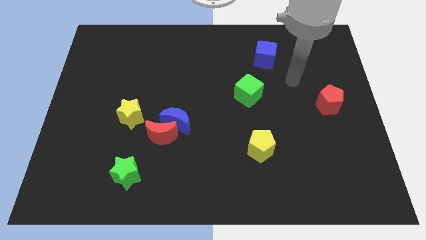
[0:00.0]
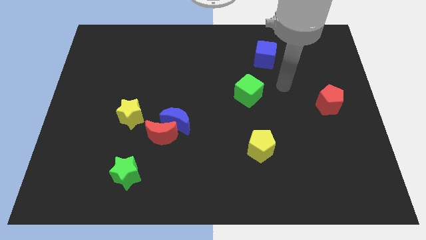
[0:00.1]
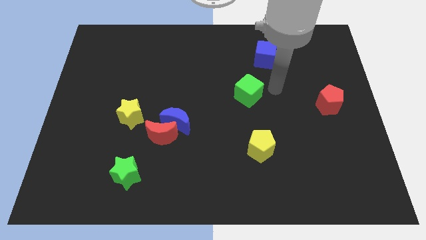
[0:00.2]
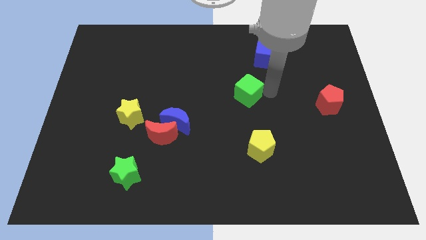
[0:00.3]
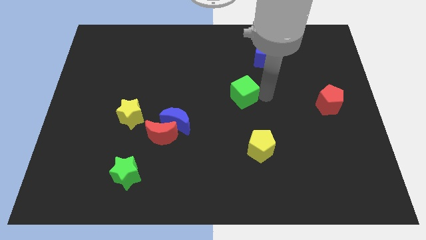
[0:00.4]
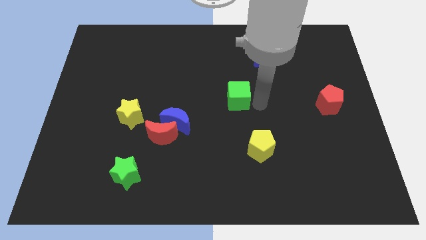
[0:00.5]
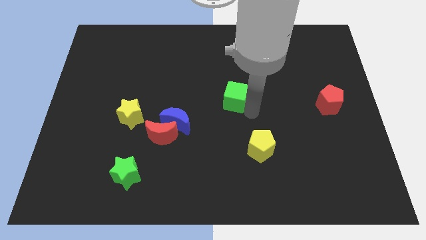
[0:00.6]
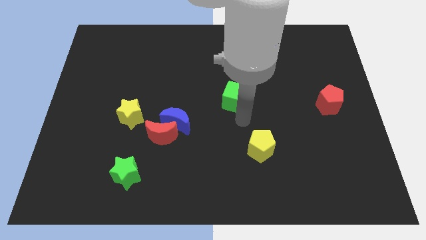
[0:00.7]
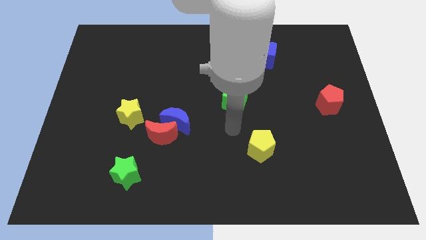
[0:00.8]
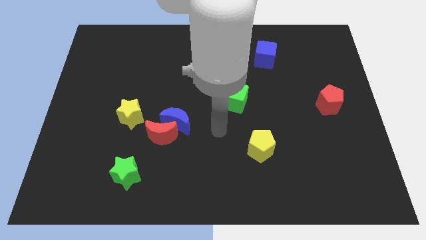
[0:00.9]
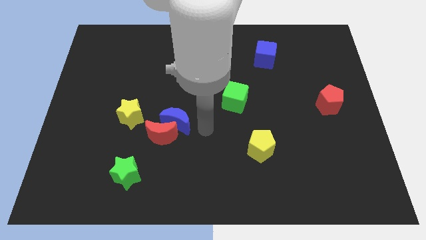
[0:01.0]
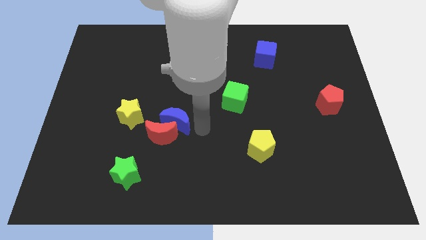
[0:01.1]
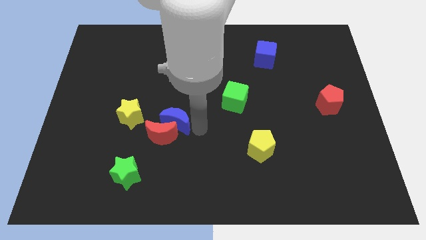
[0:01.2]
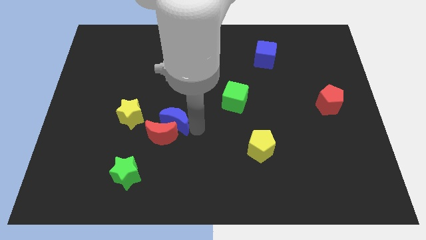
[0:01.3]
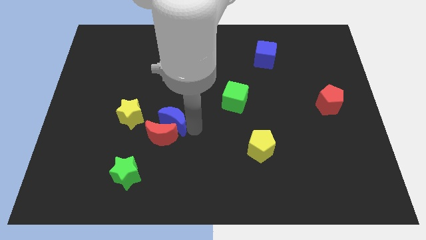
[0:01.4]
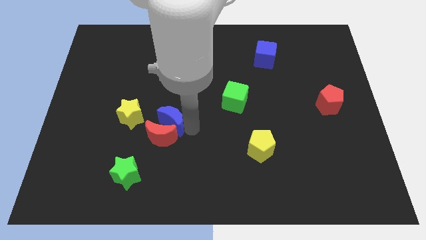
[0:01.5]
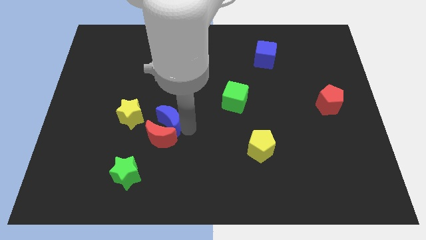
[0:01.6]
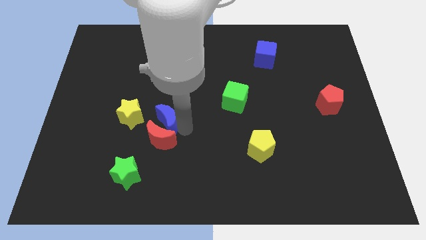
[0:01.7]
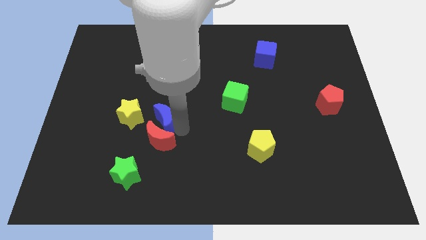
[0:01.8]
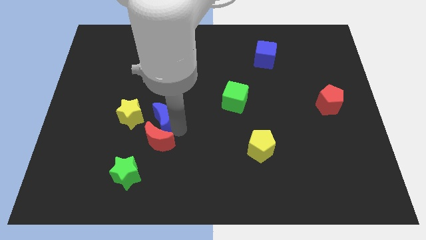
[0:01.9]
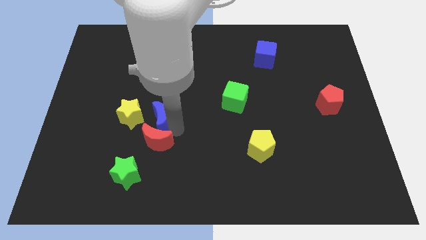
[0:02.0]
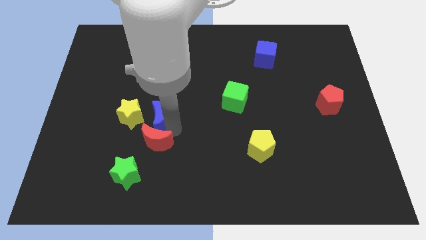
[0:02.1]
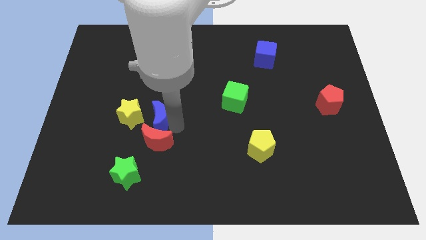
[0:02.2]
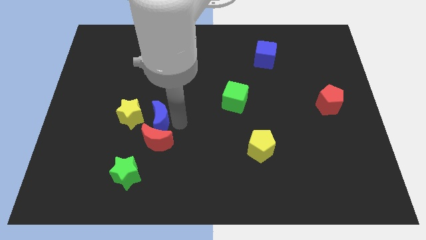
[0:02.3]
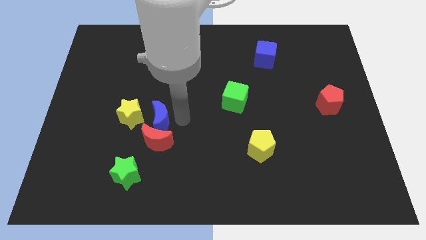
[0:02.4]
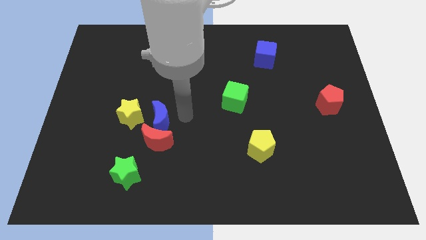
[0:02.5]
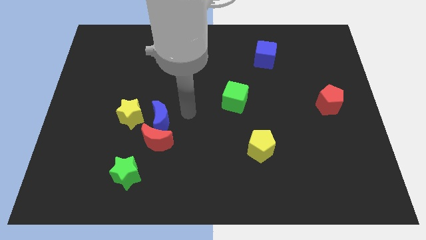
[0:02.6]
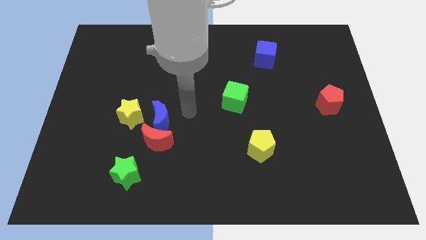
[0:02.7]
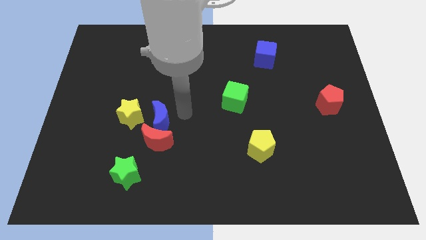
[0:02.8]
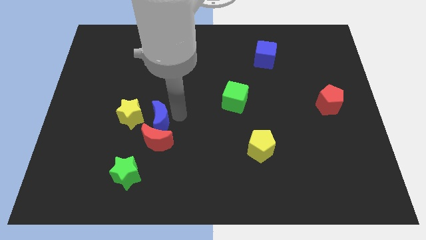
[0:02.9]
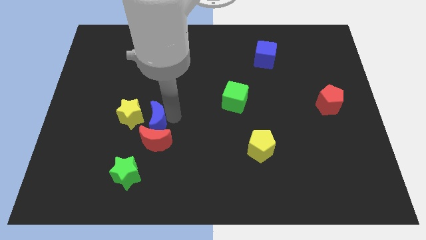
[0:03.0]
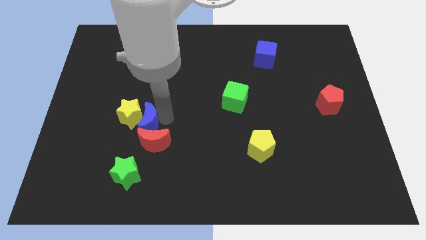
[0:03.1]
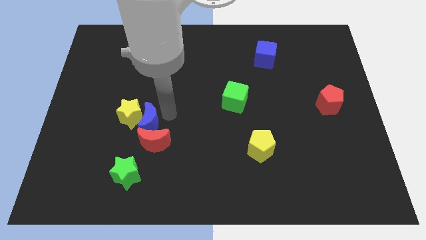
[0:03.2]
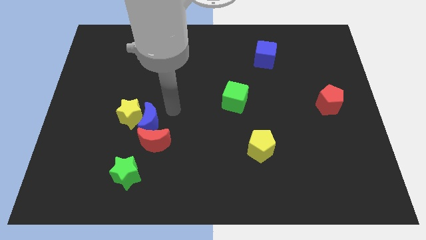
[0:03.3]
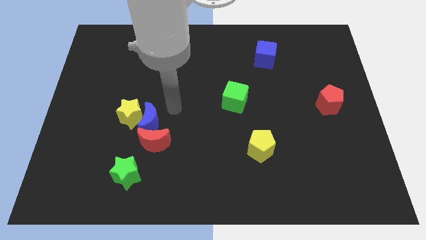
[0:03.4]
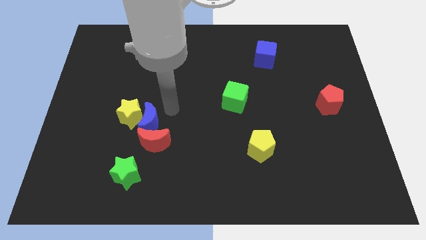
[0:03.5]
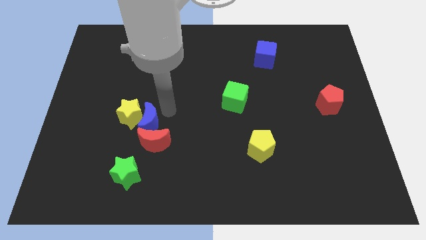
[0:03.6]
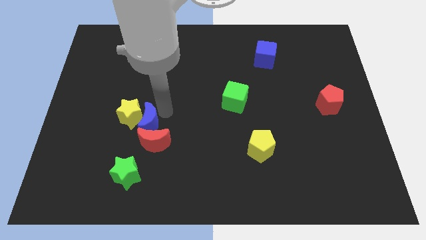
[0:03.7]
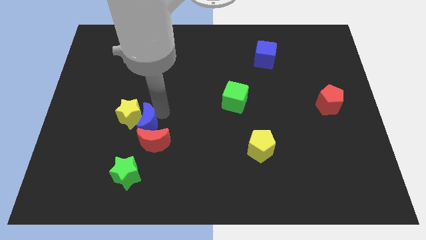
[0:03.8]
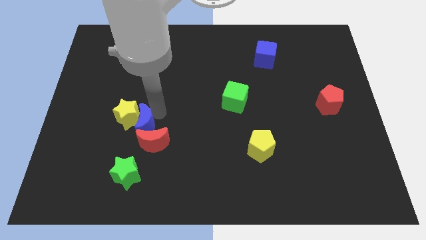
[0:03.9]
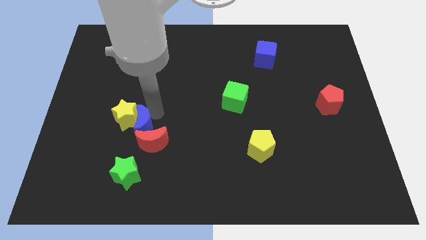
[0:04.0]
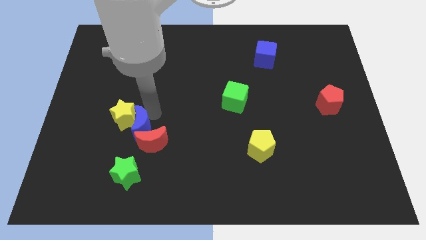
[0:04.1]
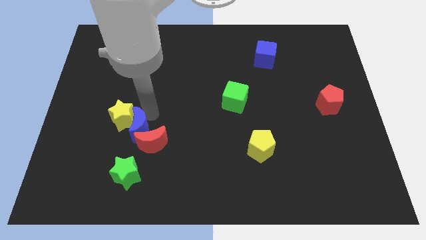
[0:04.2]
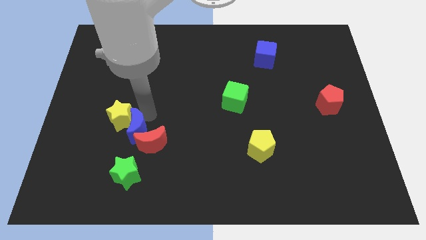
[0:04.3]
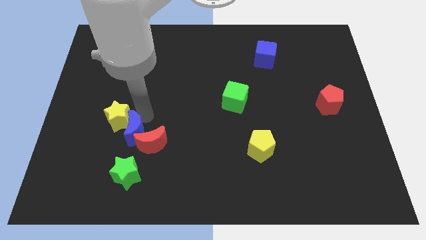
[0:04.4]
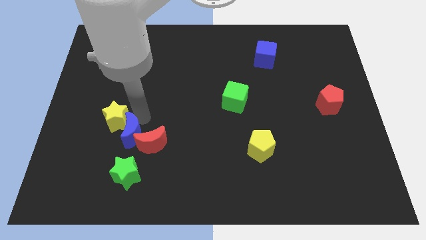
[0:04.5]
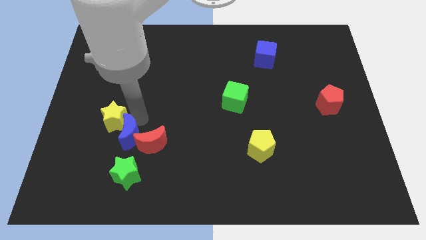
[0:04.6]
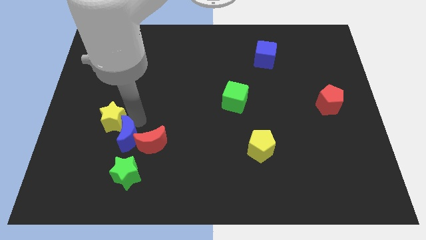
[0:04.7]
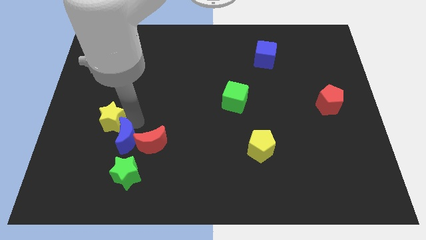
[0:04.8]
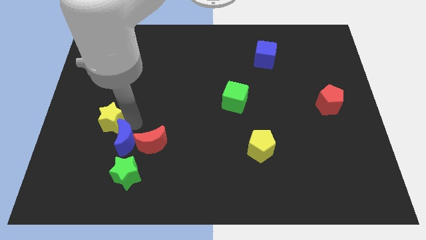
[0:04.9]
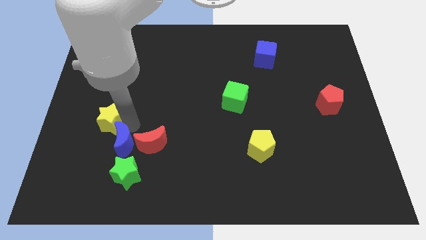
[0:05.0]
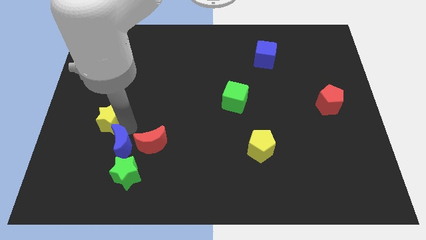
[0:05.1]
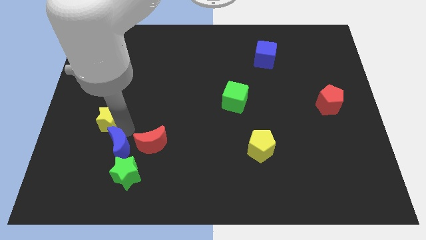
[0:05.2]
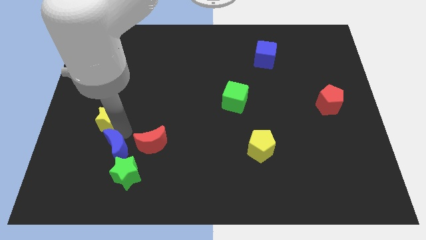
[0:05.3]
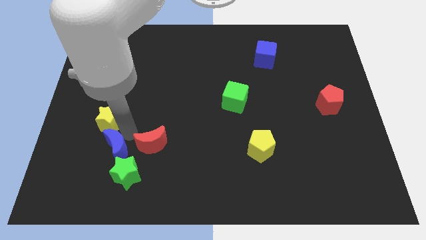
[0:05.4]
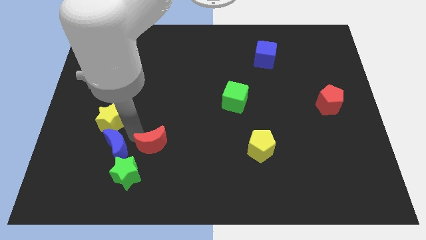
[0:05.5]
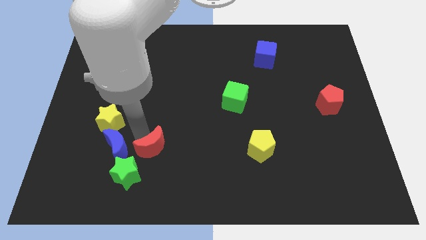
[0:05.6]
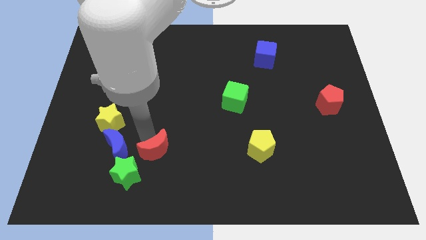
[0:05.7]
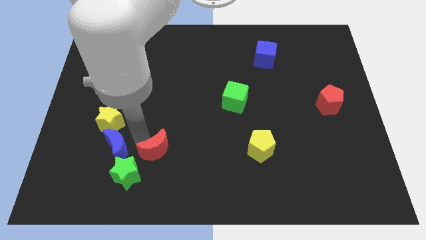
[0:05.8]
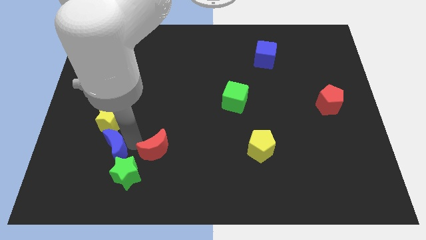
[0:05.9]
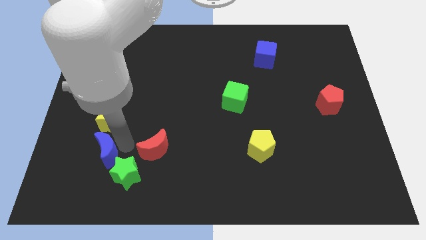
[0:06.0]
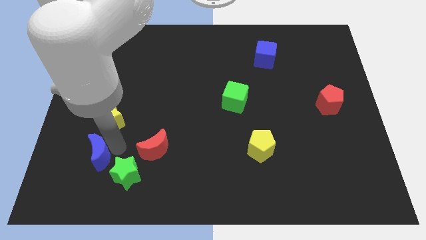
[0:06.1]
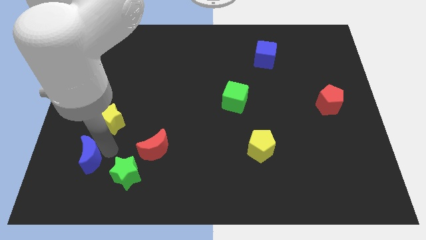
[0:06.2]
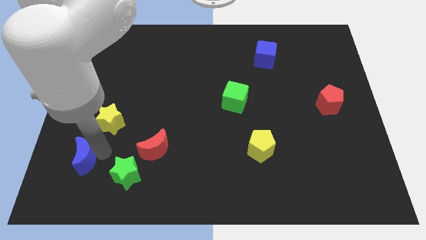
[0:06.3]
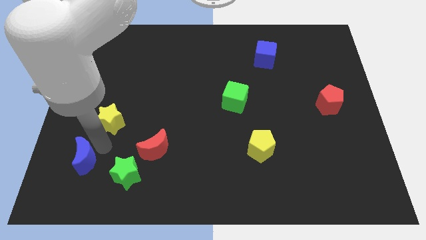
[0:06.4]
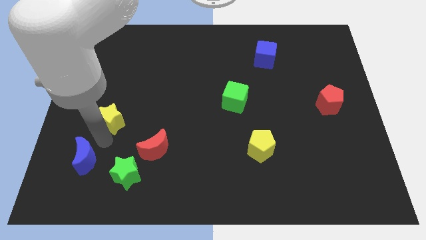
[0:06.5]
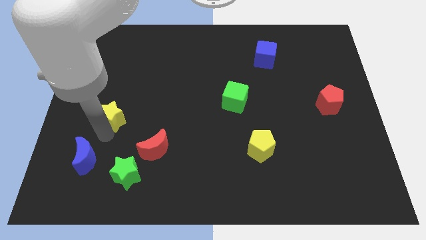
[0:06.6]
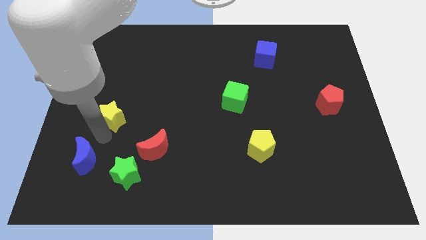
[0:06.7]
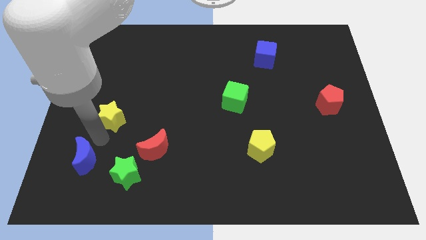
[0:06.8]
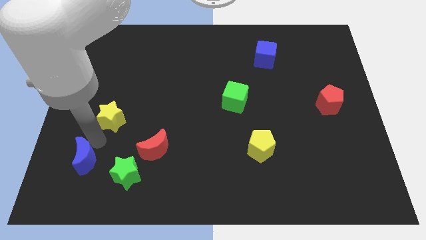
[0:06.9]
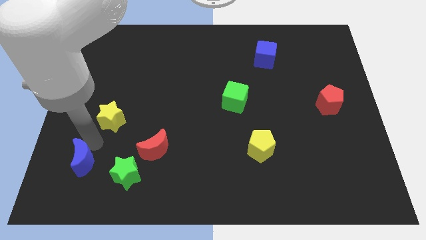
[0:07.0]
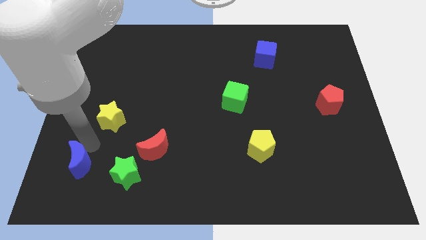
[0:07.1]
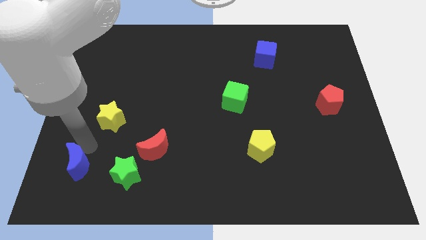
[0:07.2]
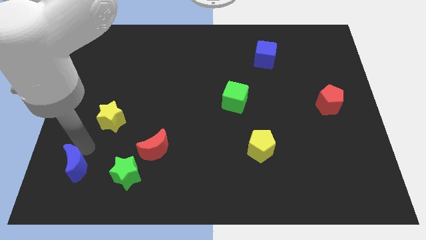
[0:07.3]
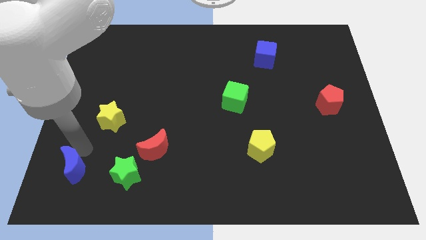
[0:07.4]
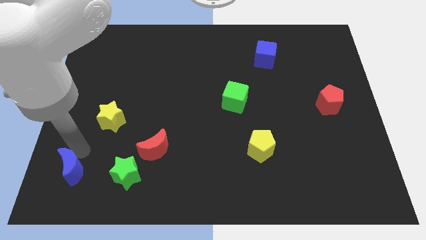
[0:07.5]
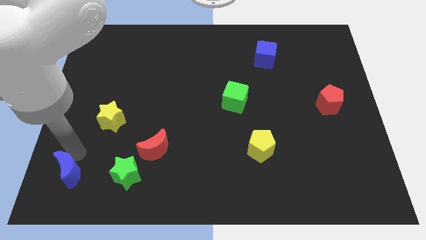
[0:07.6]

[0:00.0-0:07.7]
push the blue moon to the bottom left corner
